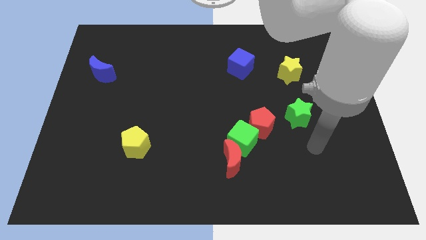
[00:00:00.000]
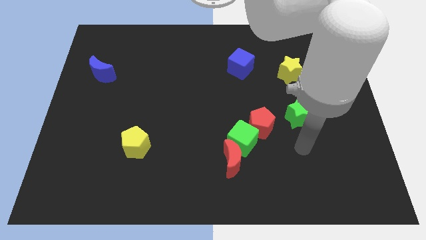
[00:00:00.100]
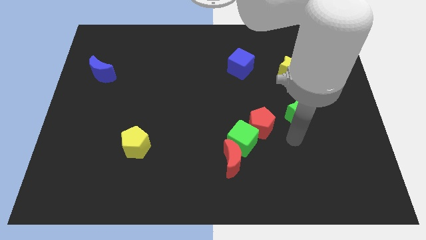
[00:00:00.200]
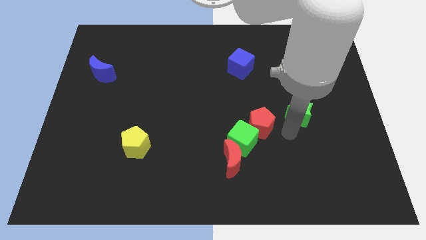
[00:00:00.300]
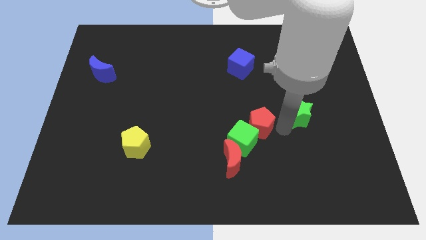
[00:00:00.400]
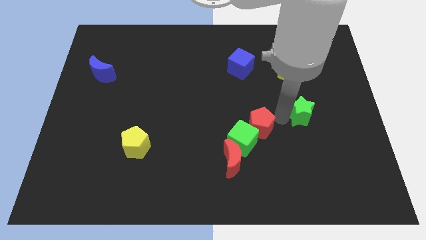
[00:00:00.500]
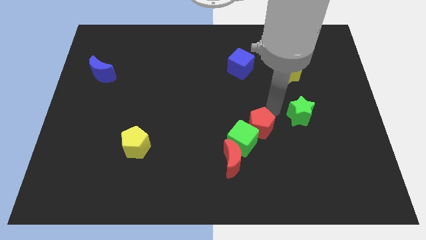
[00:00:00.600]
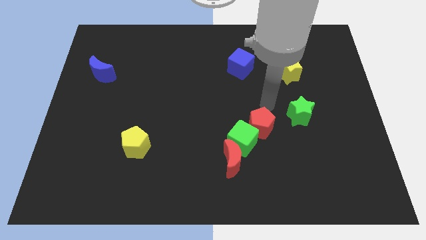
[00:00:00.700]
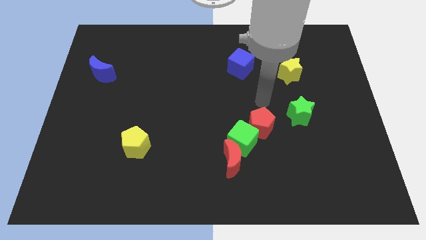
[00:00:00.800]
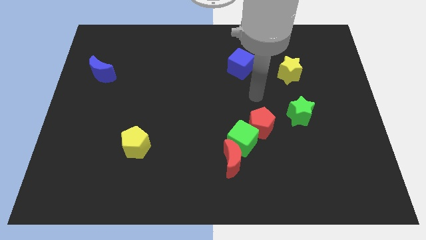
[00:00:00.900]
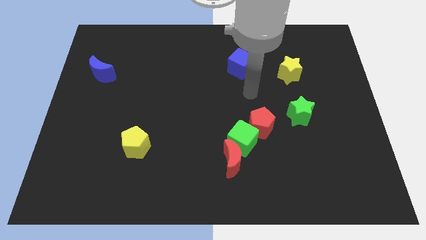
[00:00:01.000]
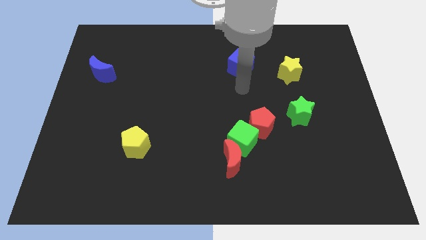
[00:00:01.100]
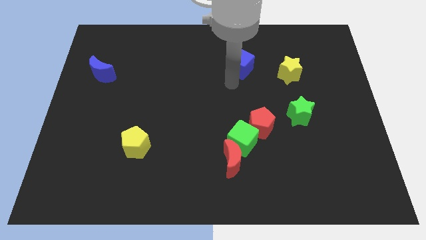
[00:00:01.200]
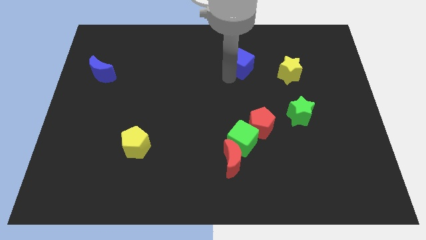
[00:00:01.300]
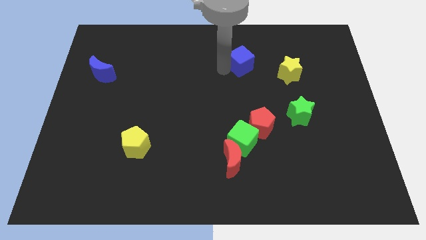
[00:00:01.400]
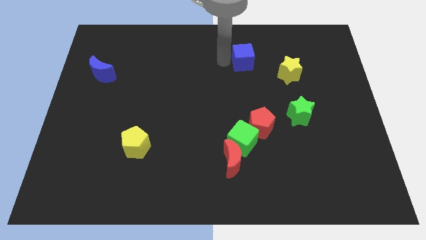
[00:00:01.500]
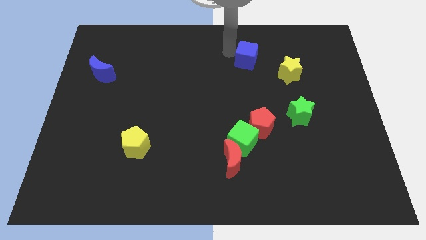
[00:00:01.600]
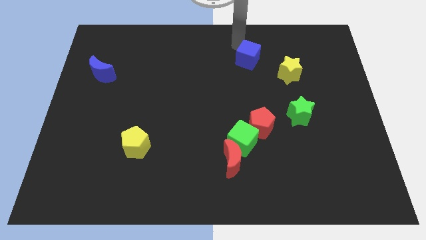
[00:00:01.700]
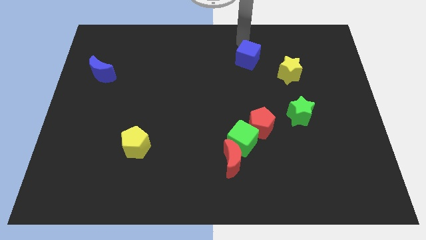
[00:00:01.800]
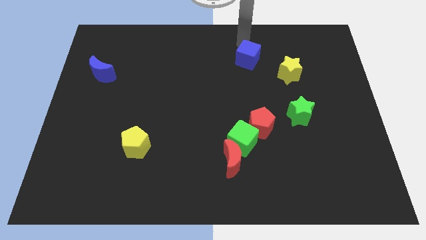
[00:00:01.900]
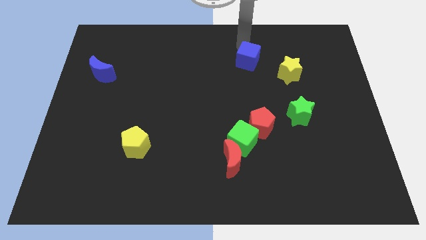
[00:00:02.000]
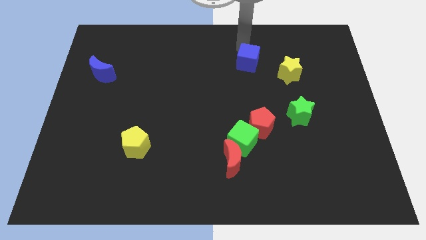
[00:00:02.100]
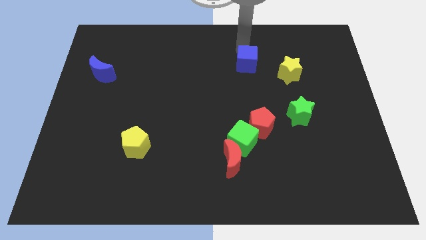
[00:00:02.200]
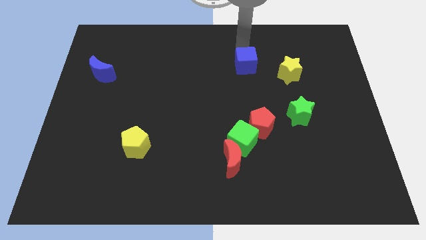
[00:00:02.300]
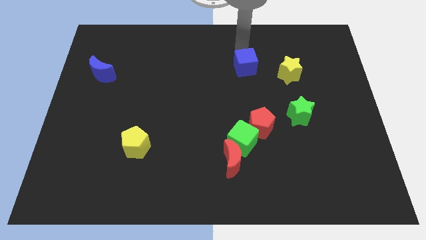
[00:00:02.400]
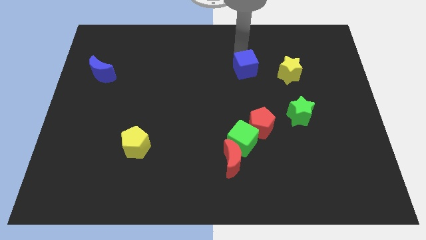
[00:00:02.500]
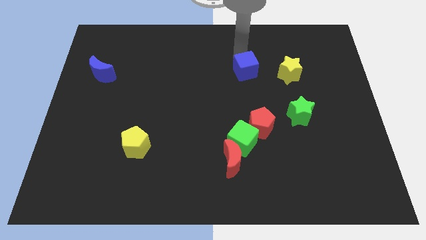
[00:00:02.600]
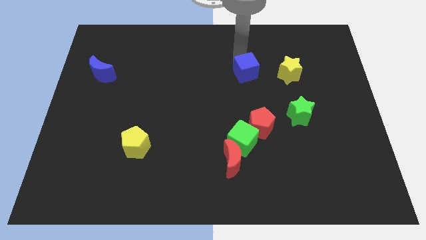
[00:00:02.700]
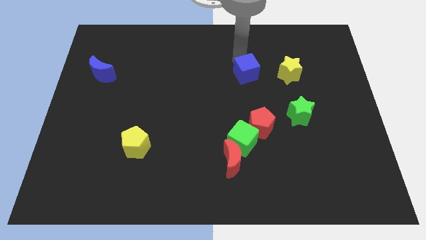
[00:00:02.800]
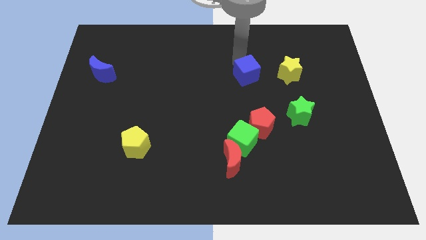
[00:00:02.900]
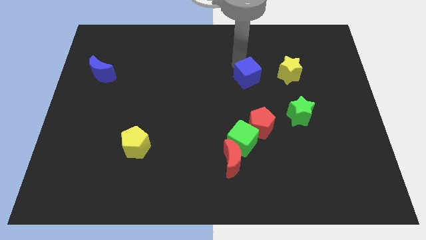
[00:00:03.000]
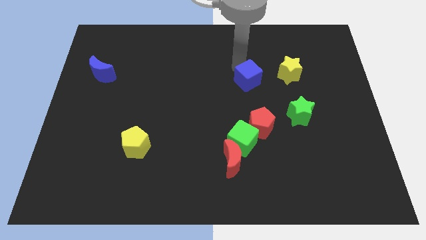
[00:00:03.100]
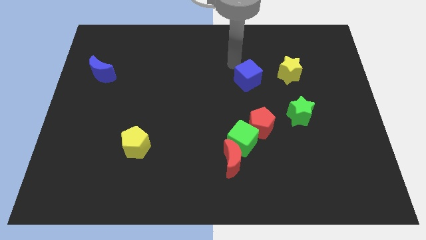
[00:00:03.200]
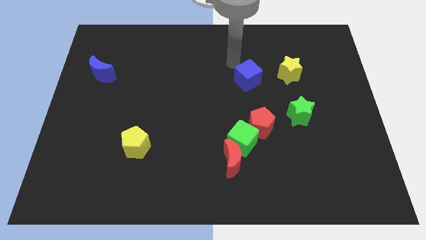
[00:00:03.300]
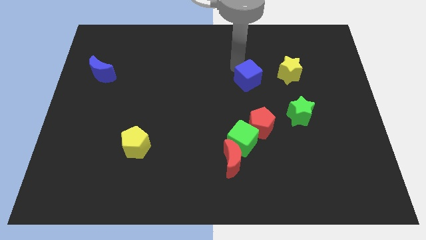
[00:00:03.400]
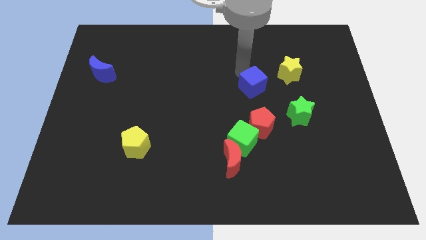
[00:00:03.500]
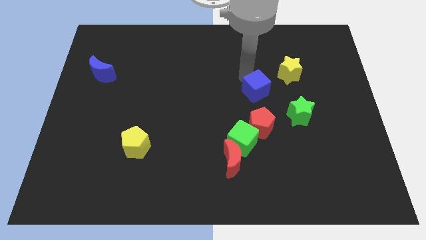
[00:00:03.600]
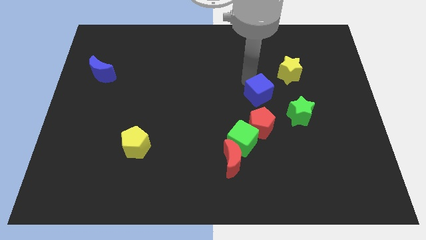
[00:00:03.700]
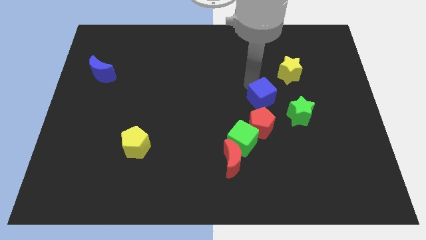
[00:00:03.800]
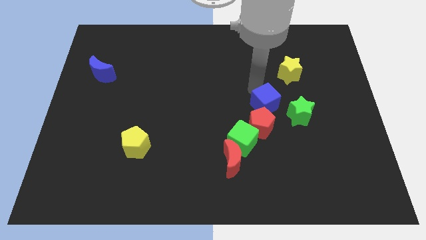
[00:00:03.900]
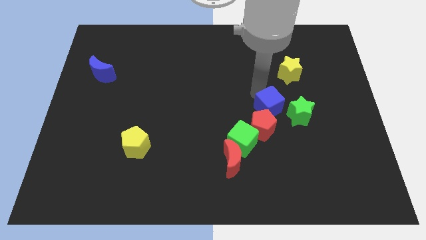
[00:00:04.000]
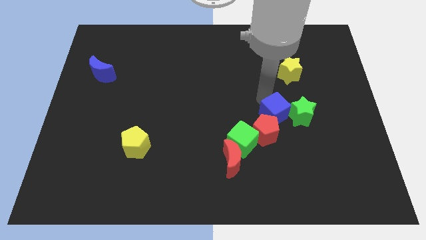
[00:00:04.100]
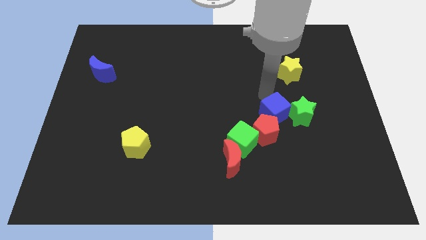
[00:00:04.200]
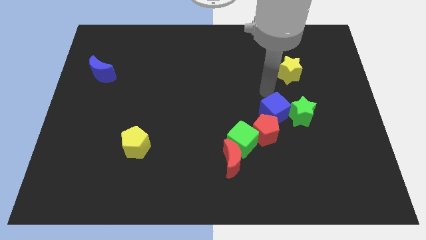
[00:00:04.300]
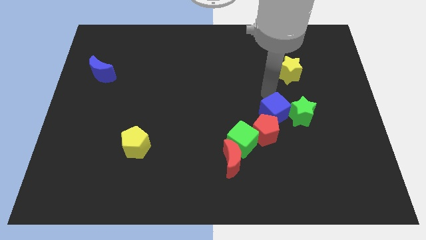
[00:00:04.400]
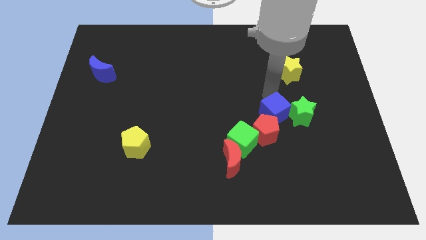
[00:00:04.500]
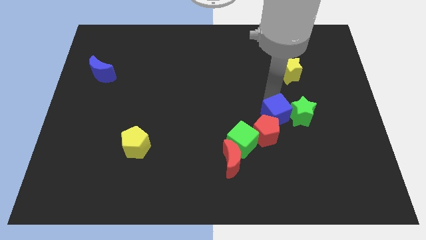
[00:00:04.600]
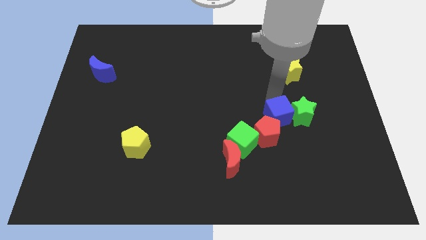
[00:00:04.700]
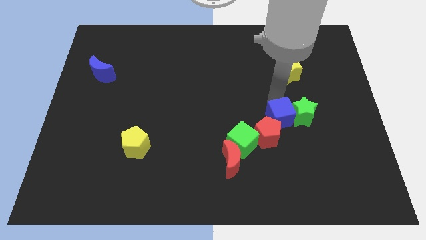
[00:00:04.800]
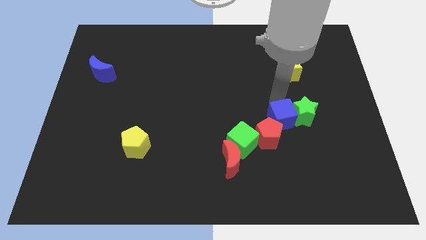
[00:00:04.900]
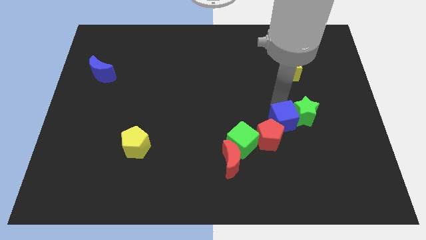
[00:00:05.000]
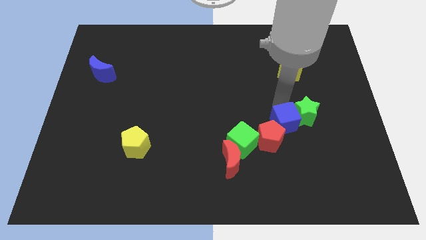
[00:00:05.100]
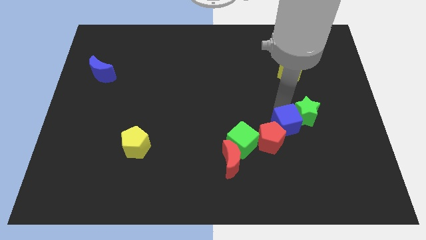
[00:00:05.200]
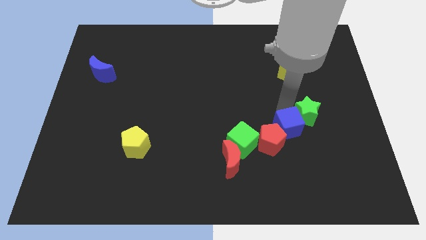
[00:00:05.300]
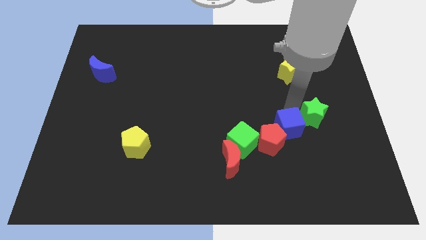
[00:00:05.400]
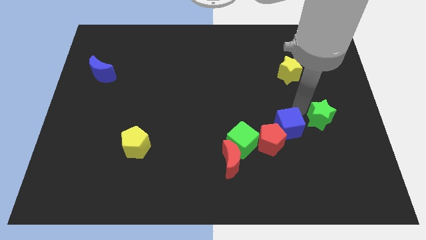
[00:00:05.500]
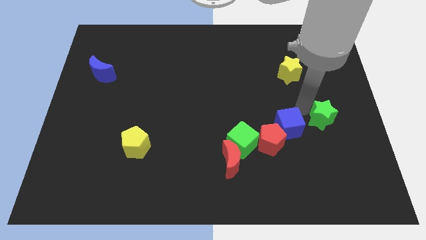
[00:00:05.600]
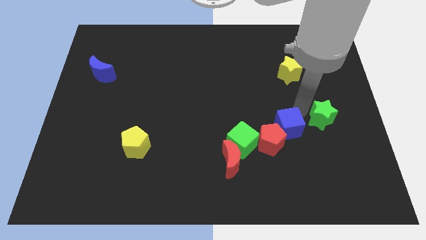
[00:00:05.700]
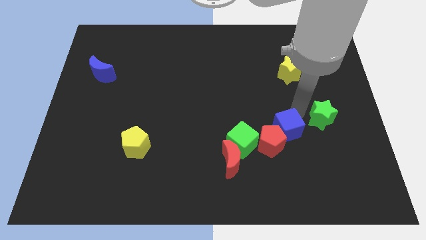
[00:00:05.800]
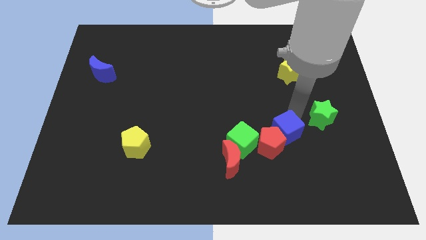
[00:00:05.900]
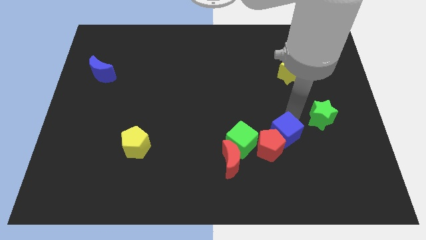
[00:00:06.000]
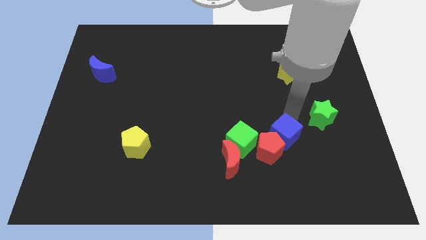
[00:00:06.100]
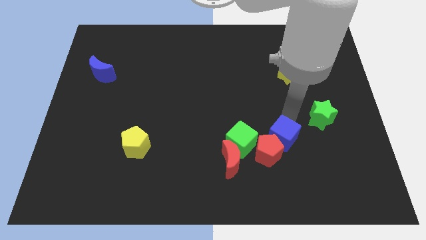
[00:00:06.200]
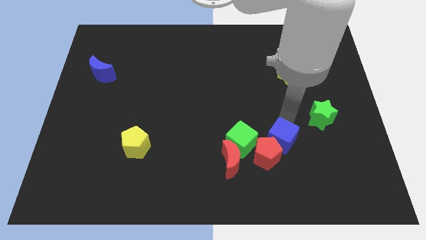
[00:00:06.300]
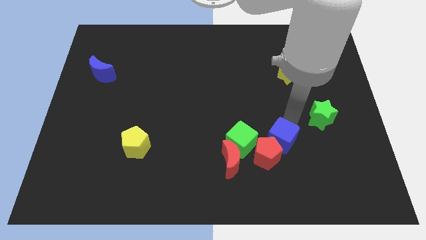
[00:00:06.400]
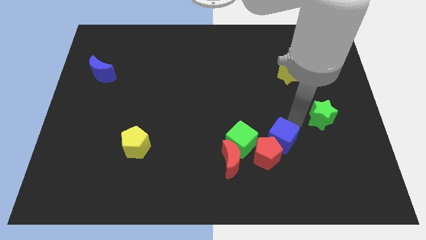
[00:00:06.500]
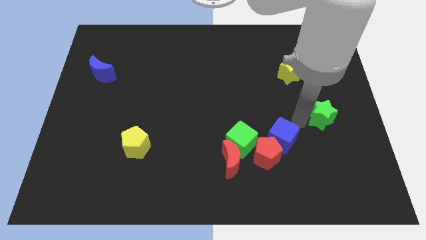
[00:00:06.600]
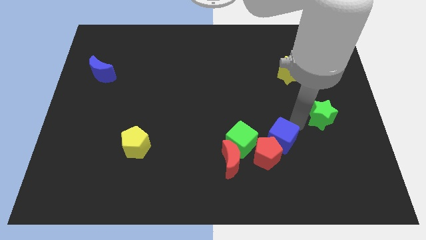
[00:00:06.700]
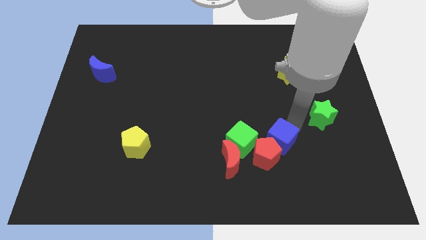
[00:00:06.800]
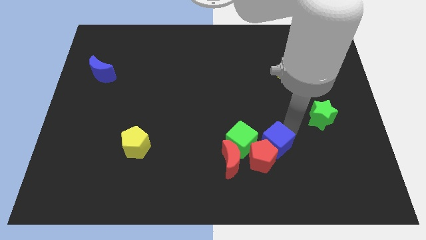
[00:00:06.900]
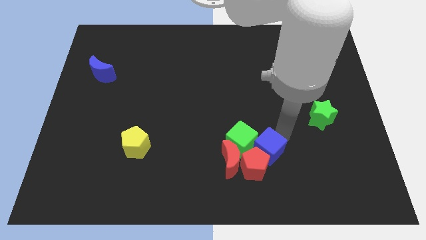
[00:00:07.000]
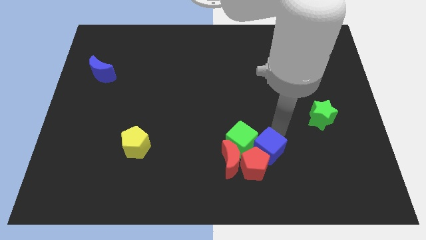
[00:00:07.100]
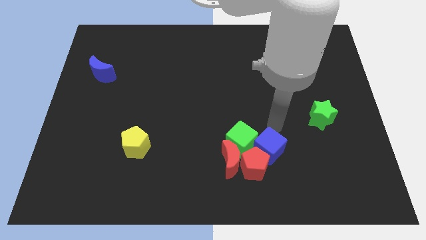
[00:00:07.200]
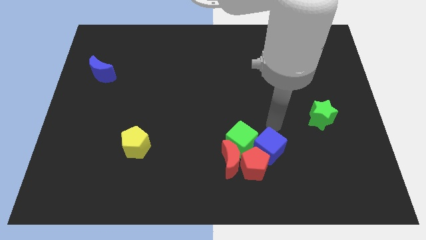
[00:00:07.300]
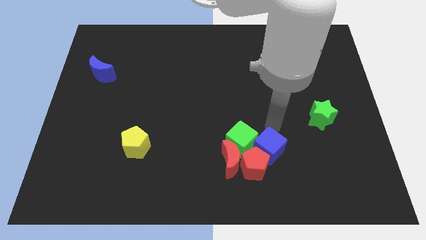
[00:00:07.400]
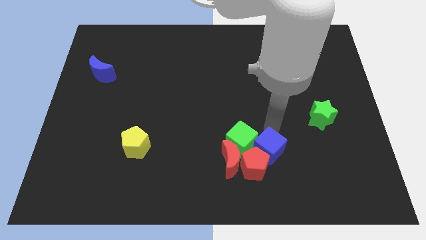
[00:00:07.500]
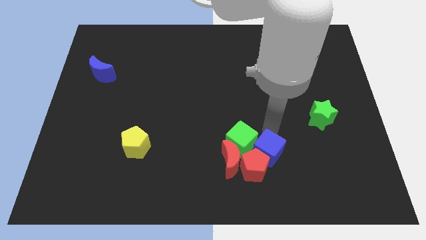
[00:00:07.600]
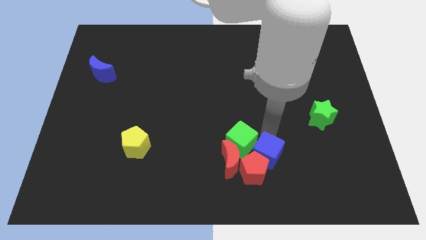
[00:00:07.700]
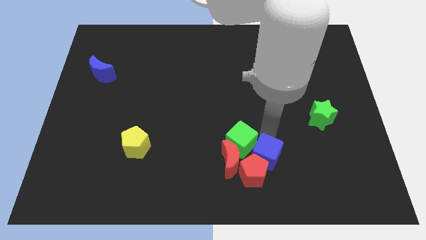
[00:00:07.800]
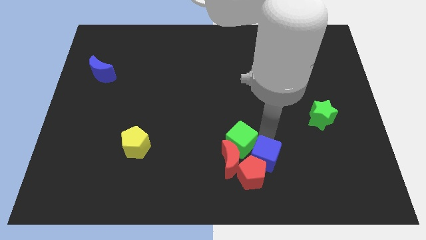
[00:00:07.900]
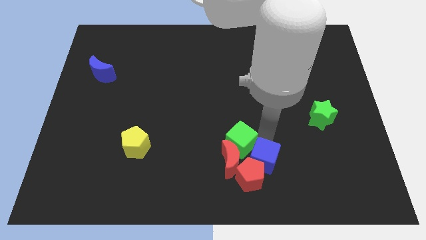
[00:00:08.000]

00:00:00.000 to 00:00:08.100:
move the blue cube to the bottom side of the green cube
